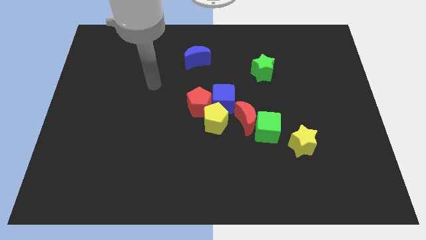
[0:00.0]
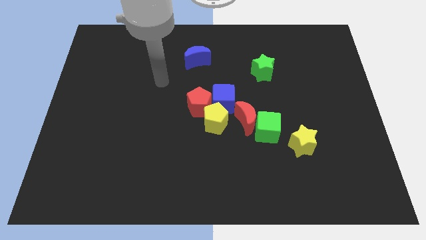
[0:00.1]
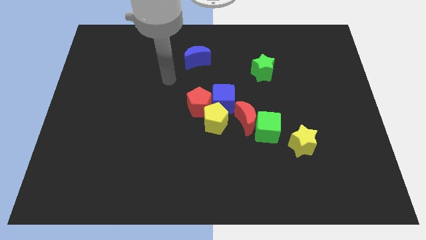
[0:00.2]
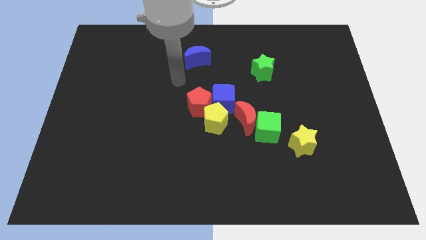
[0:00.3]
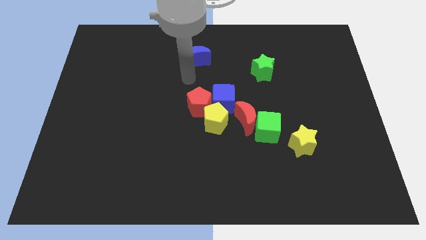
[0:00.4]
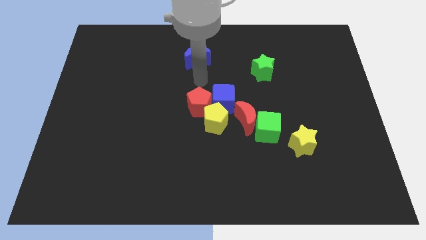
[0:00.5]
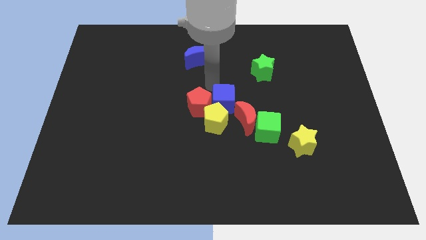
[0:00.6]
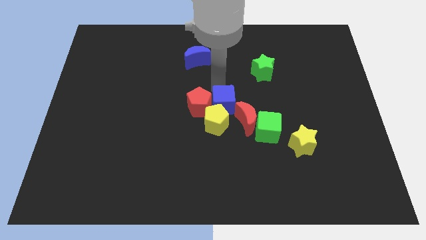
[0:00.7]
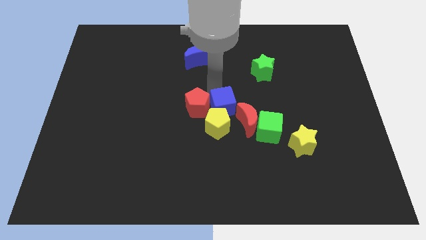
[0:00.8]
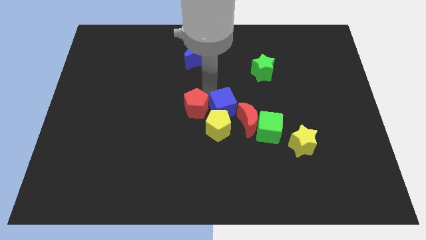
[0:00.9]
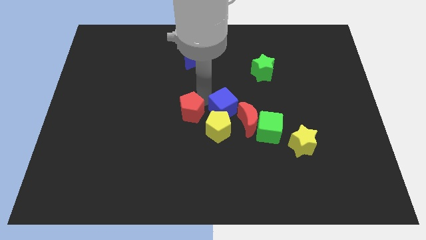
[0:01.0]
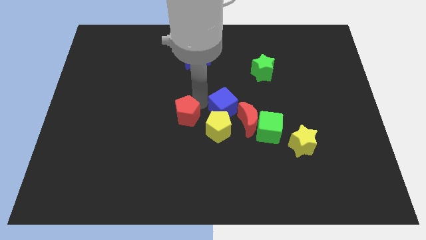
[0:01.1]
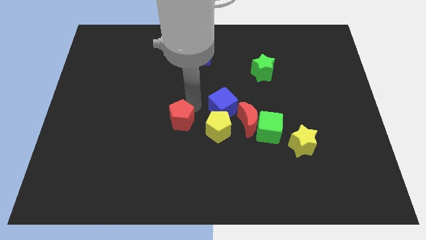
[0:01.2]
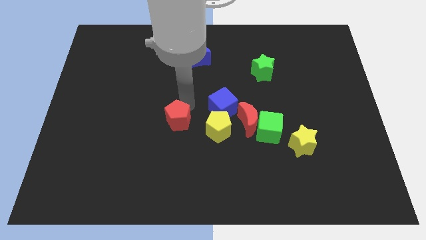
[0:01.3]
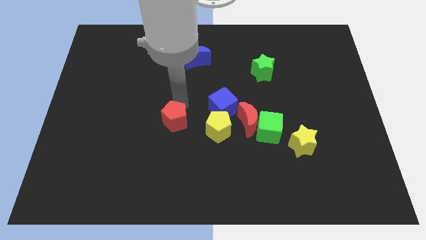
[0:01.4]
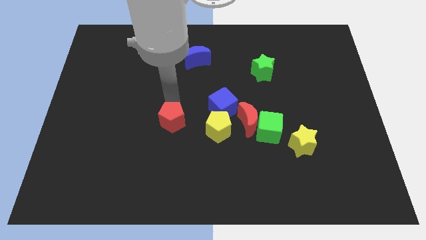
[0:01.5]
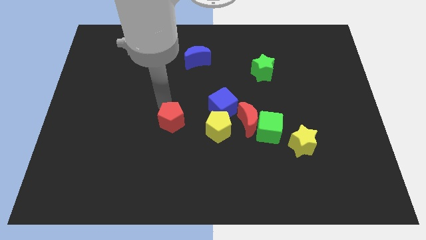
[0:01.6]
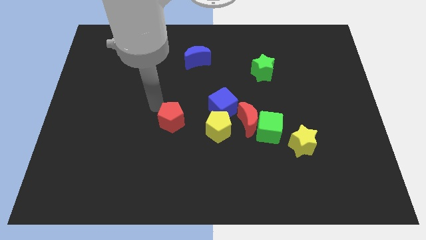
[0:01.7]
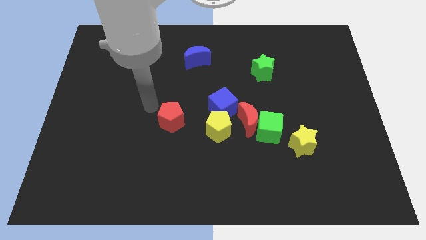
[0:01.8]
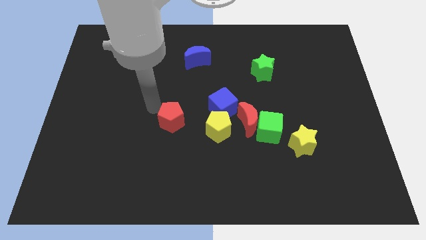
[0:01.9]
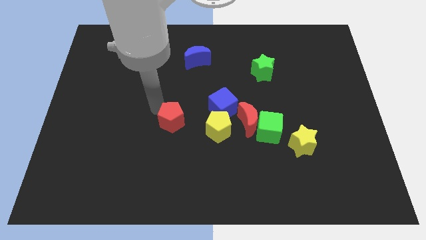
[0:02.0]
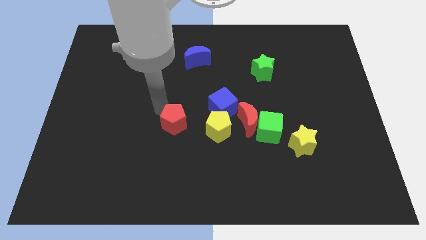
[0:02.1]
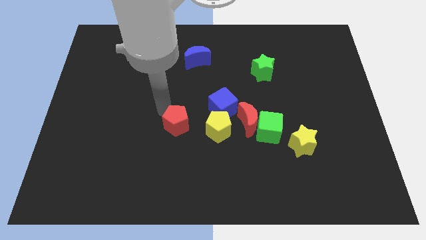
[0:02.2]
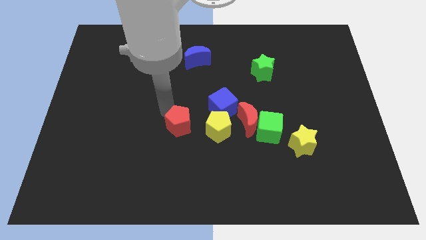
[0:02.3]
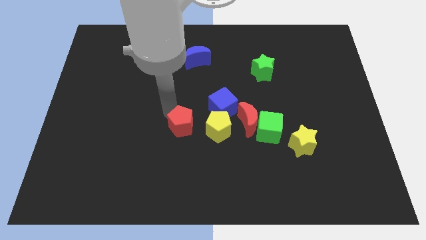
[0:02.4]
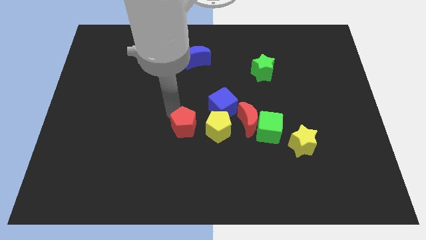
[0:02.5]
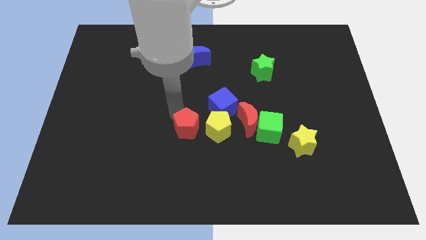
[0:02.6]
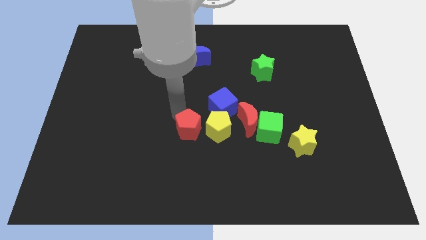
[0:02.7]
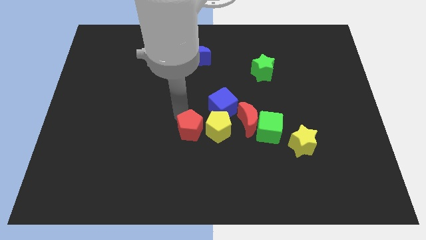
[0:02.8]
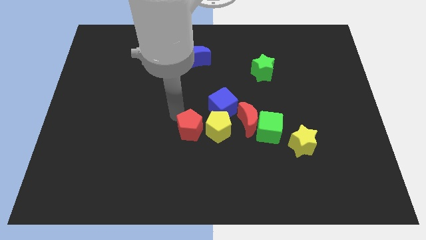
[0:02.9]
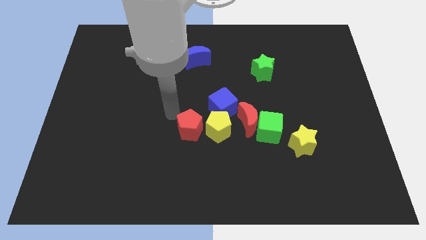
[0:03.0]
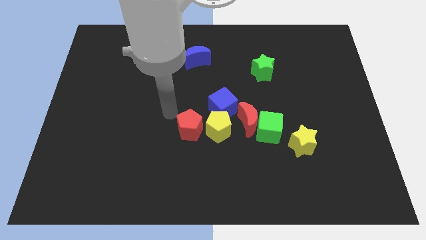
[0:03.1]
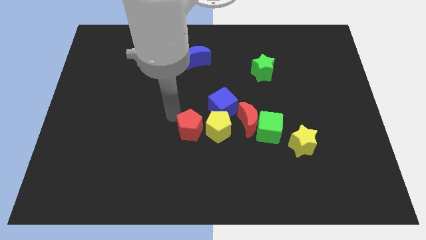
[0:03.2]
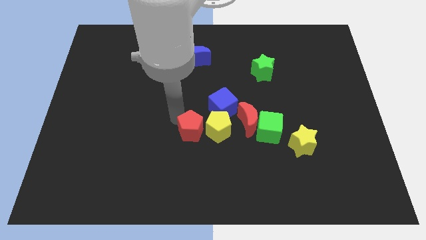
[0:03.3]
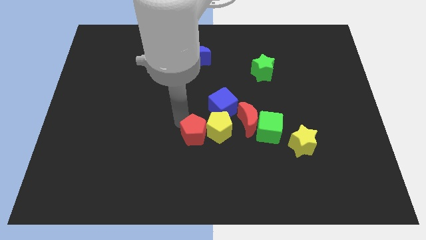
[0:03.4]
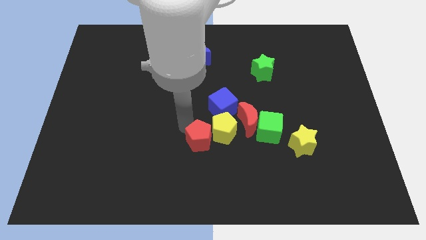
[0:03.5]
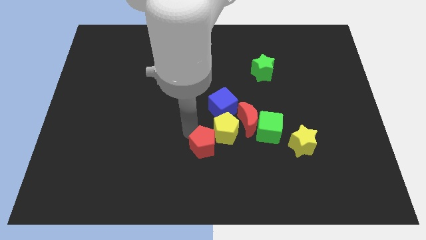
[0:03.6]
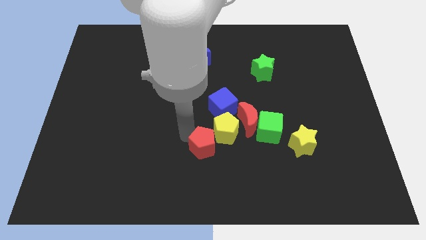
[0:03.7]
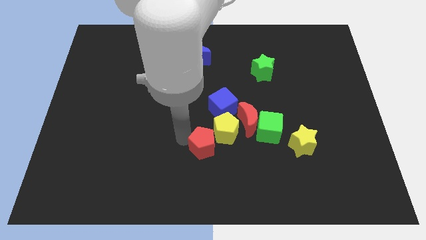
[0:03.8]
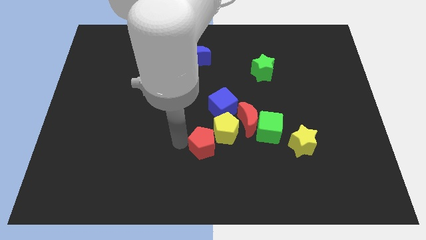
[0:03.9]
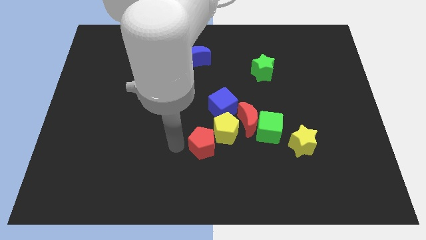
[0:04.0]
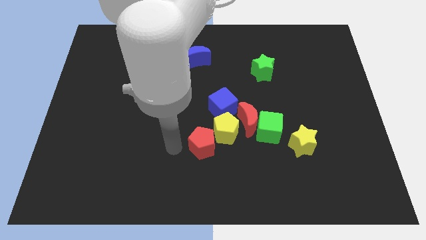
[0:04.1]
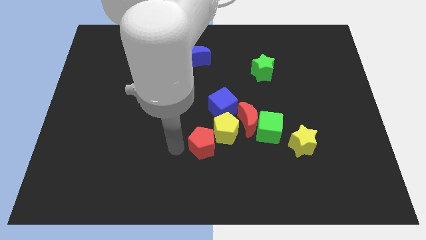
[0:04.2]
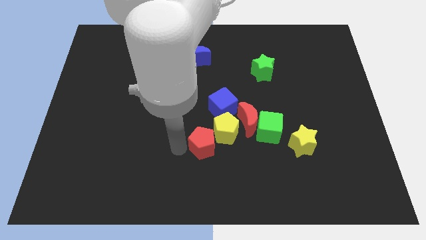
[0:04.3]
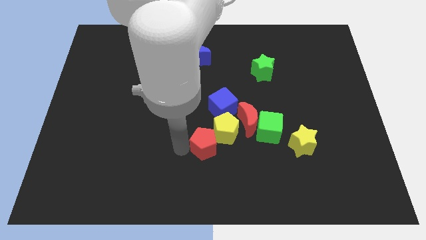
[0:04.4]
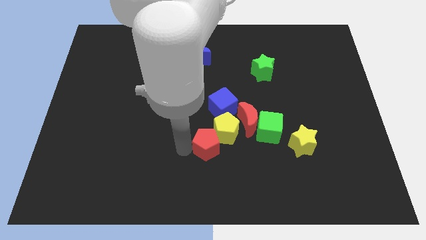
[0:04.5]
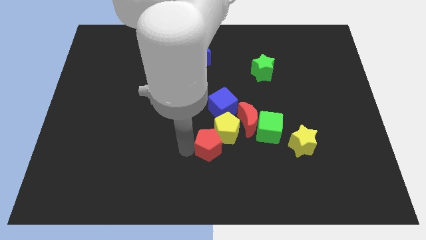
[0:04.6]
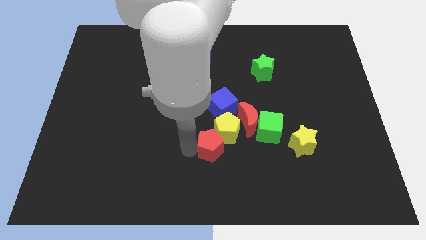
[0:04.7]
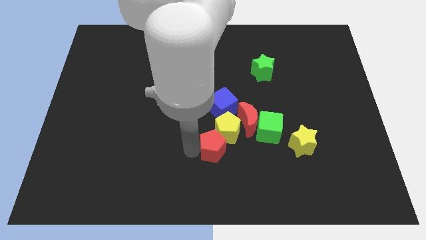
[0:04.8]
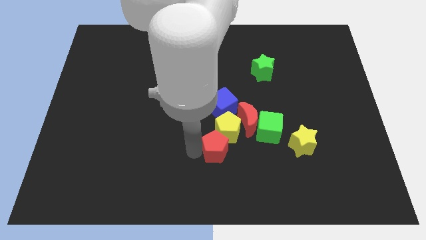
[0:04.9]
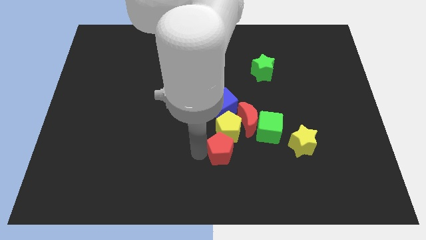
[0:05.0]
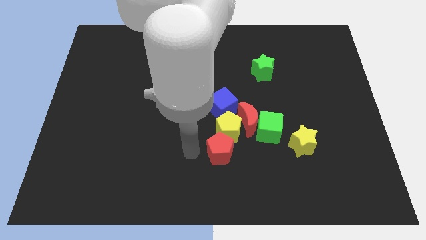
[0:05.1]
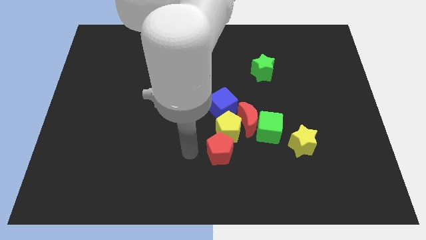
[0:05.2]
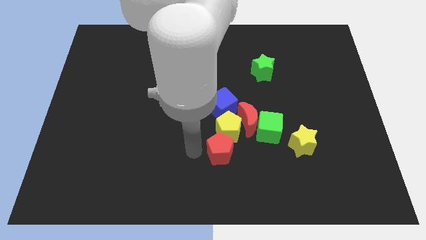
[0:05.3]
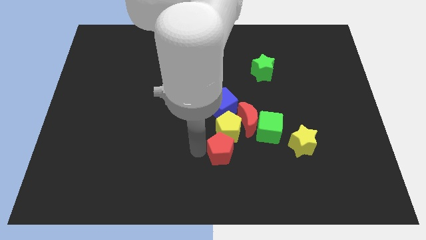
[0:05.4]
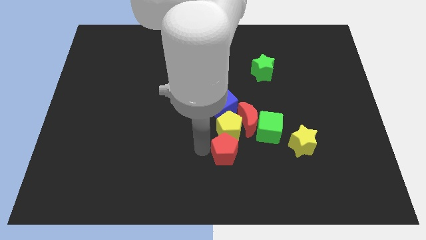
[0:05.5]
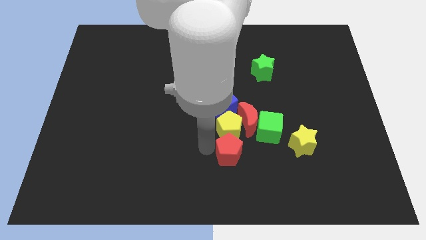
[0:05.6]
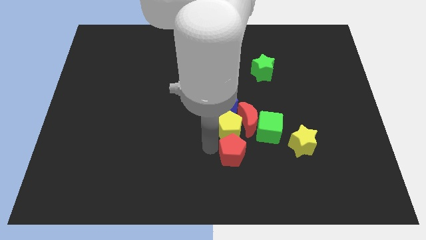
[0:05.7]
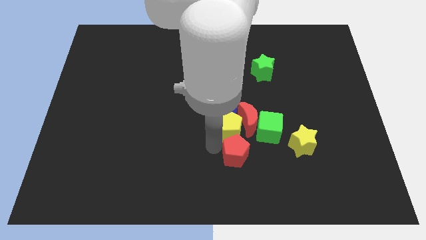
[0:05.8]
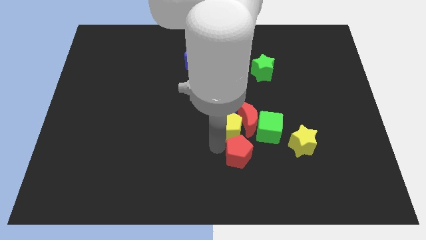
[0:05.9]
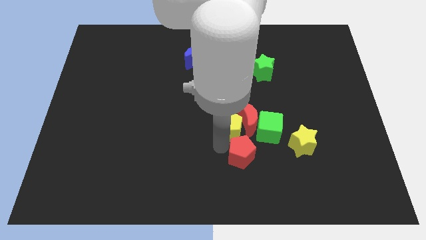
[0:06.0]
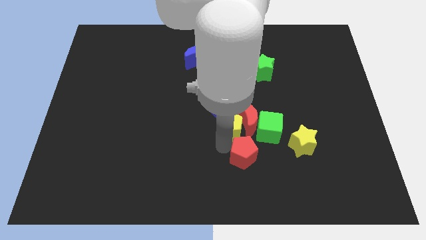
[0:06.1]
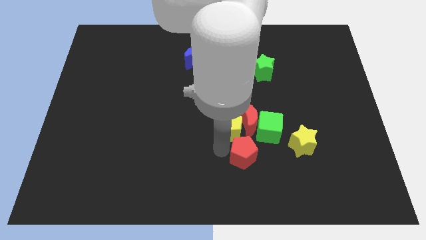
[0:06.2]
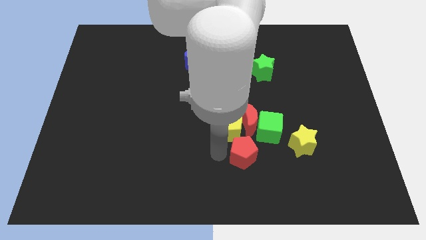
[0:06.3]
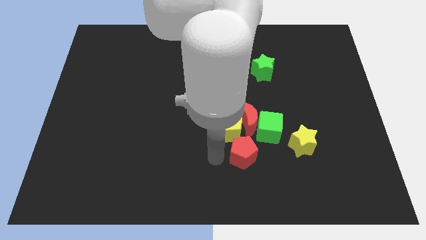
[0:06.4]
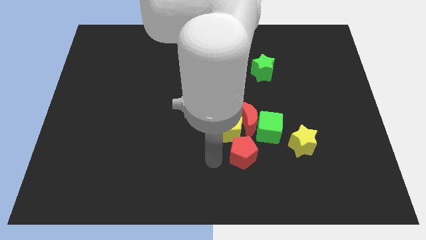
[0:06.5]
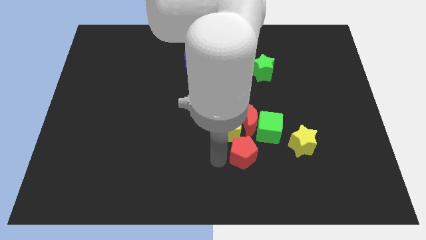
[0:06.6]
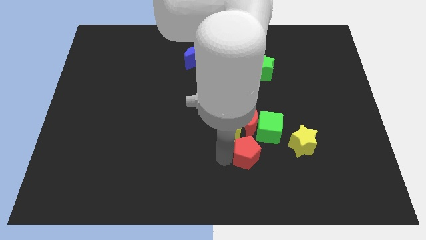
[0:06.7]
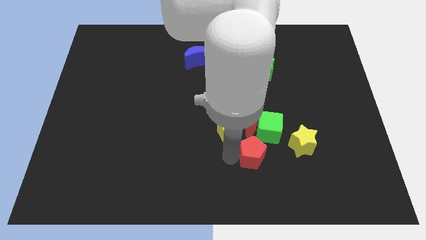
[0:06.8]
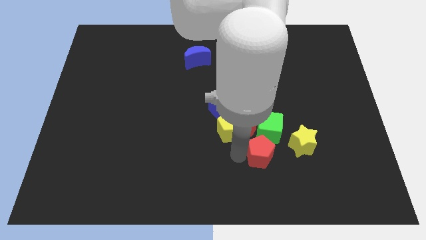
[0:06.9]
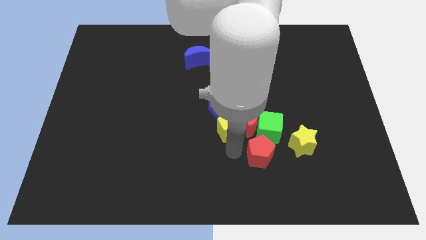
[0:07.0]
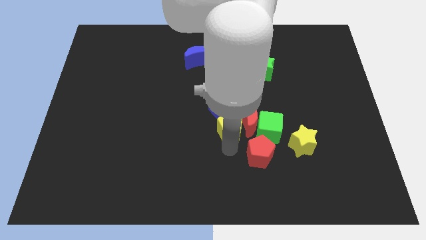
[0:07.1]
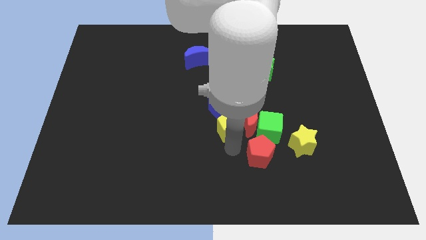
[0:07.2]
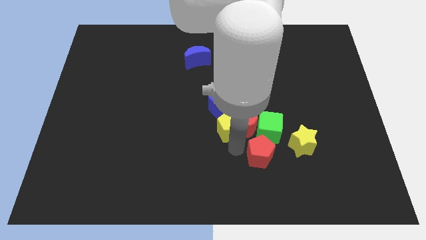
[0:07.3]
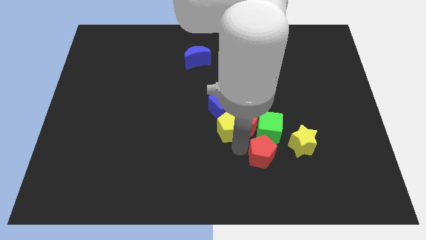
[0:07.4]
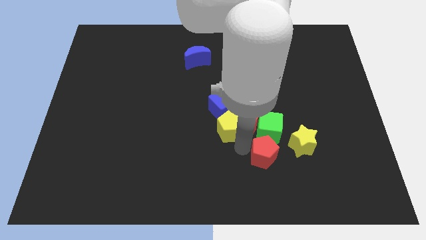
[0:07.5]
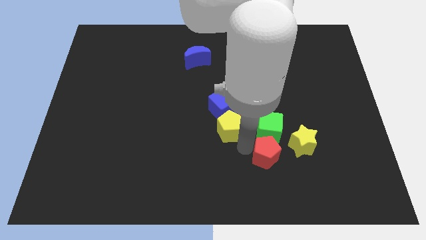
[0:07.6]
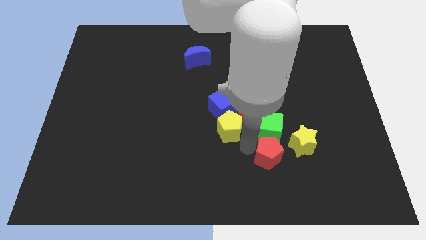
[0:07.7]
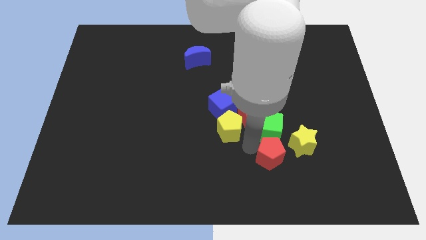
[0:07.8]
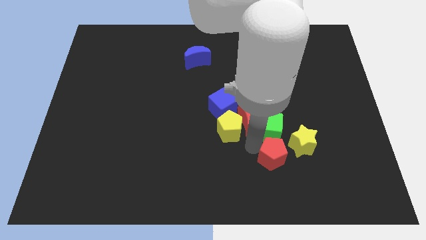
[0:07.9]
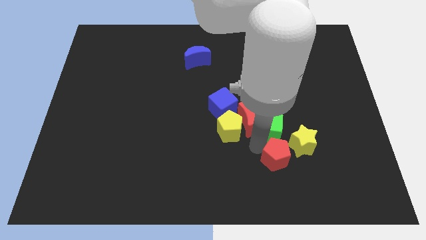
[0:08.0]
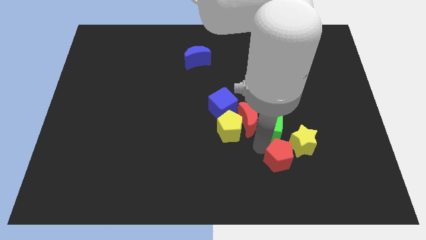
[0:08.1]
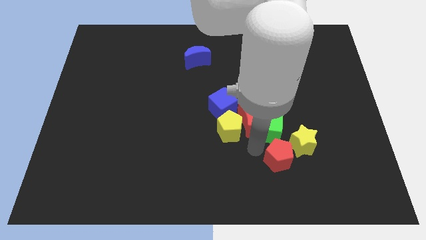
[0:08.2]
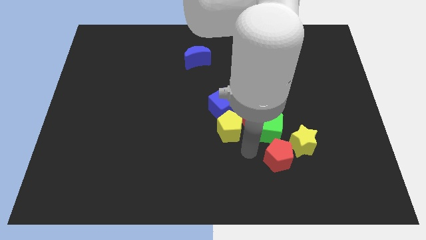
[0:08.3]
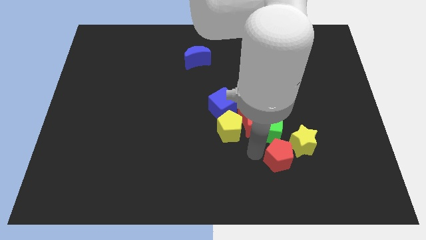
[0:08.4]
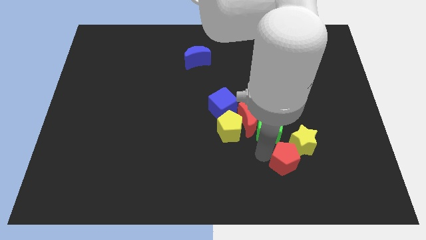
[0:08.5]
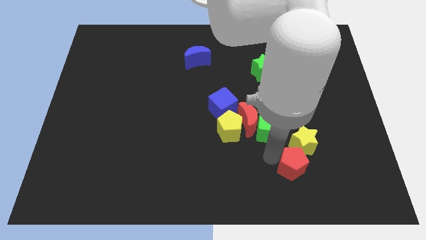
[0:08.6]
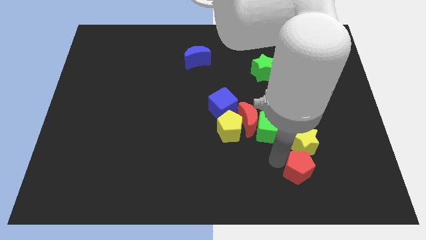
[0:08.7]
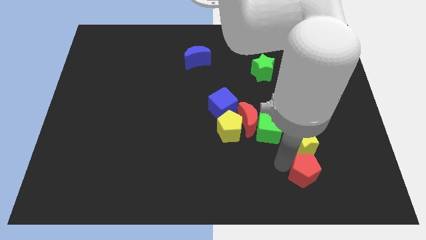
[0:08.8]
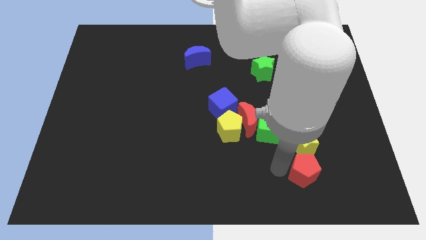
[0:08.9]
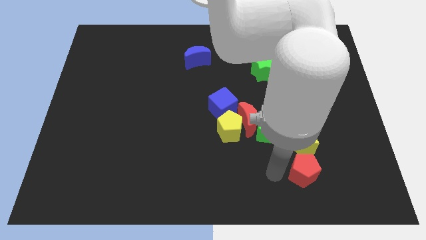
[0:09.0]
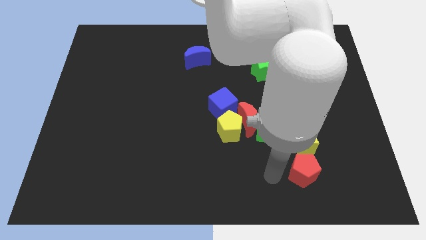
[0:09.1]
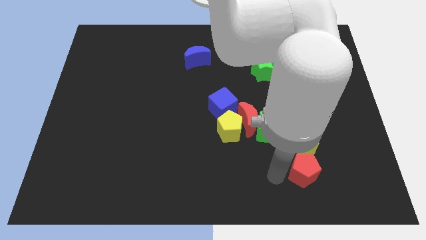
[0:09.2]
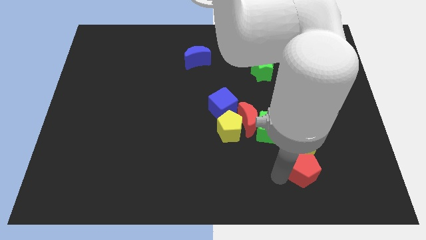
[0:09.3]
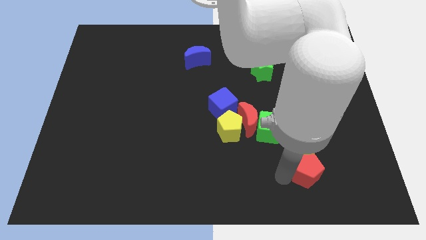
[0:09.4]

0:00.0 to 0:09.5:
move the red pentagon to the bottom right side of the yellow star
